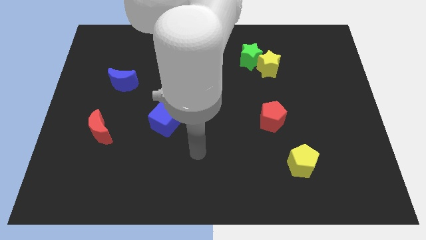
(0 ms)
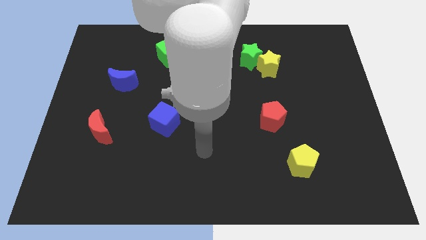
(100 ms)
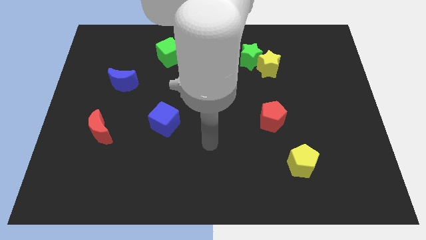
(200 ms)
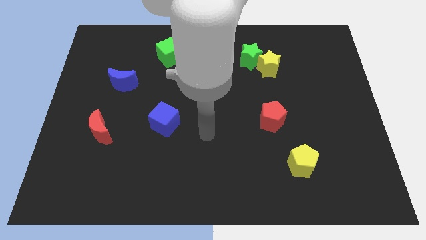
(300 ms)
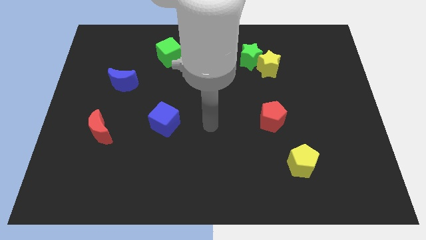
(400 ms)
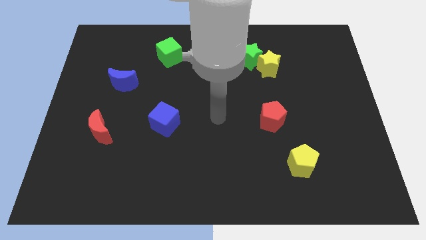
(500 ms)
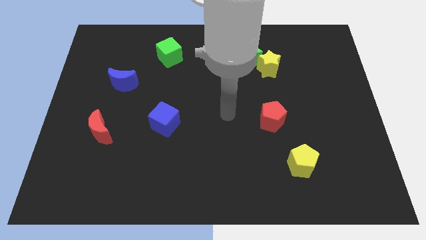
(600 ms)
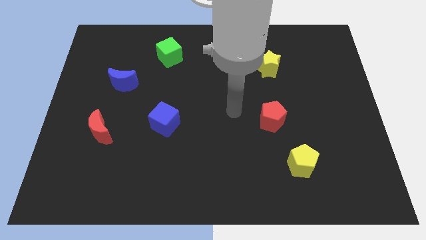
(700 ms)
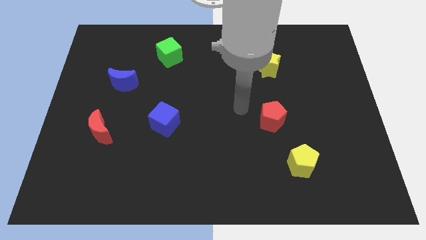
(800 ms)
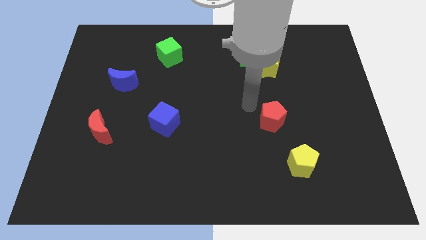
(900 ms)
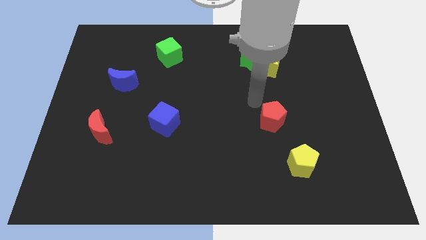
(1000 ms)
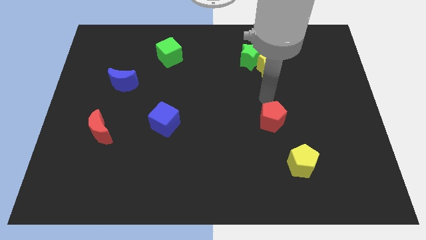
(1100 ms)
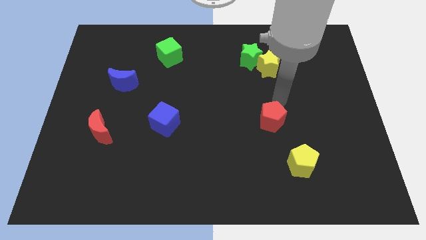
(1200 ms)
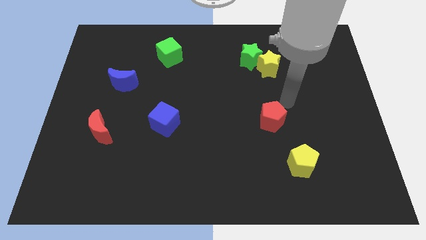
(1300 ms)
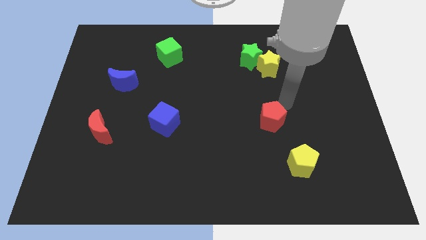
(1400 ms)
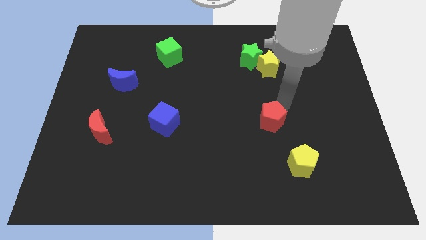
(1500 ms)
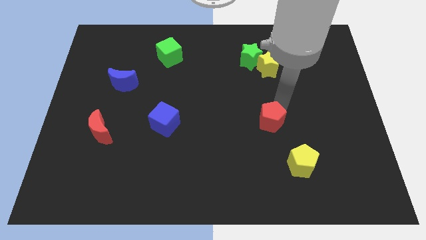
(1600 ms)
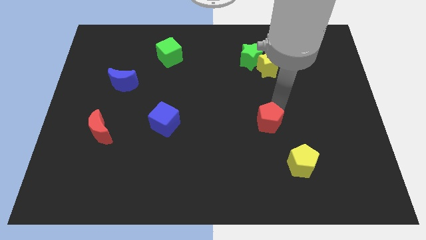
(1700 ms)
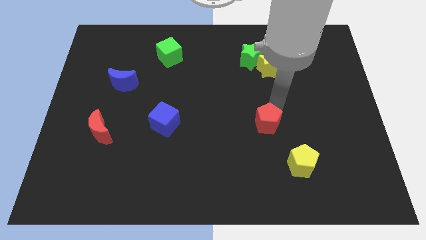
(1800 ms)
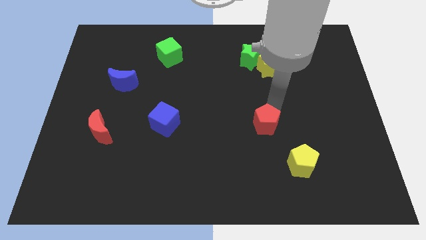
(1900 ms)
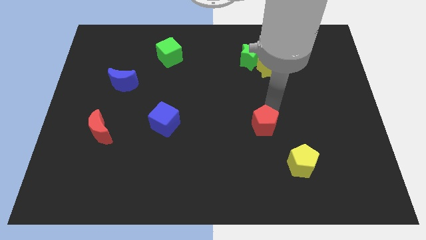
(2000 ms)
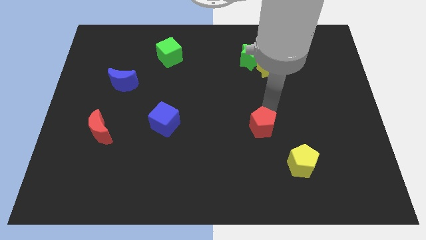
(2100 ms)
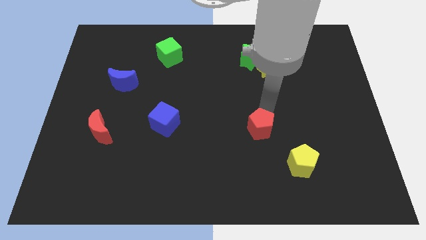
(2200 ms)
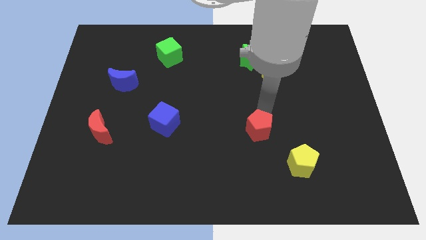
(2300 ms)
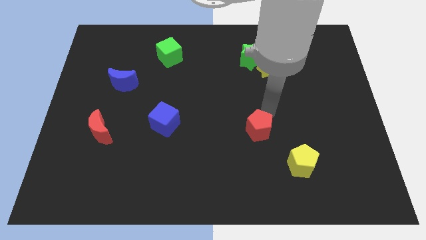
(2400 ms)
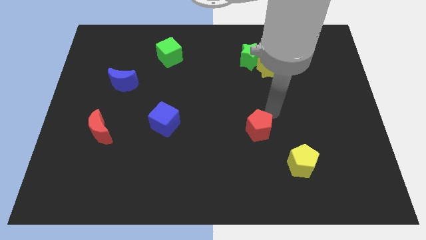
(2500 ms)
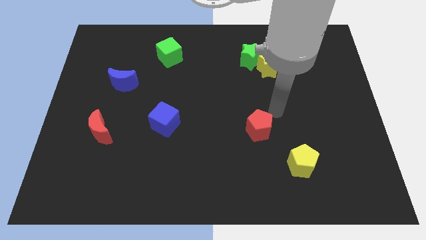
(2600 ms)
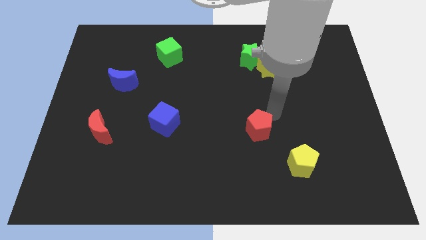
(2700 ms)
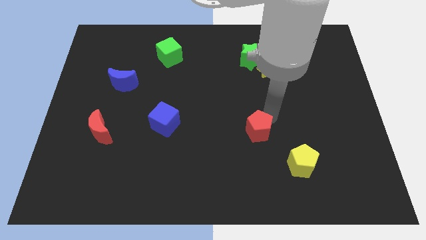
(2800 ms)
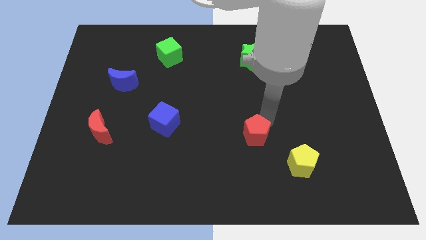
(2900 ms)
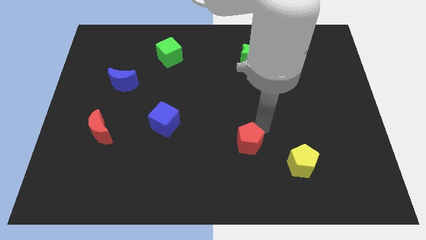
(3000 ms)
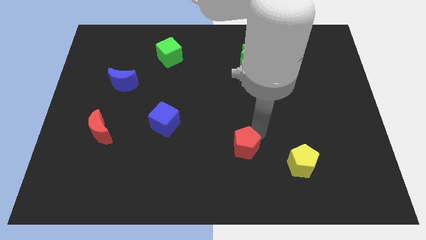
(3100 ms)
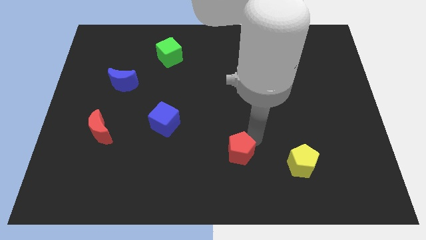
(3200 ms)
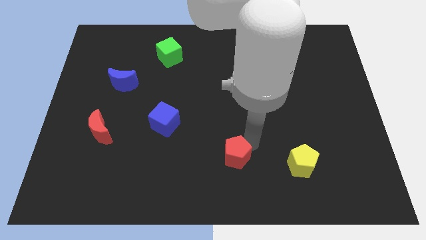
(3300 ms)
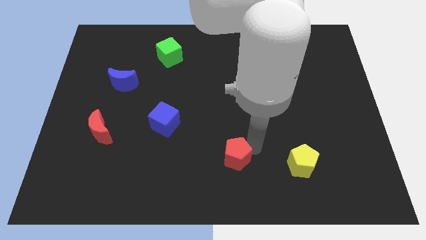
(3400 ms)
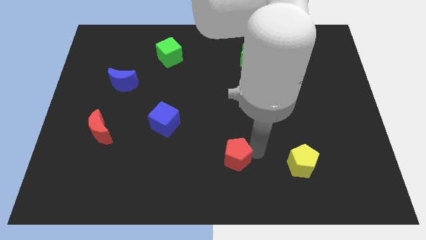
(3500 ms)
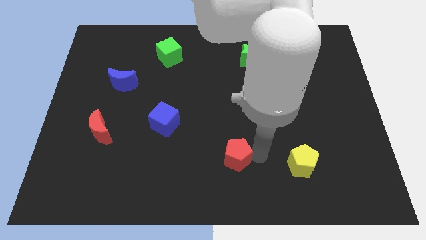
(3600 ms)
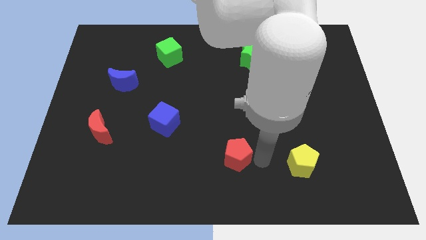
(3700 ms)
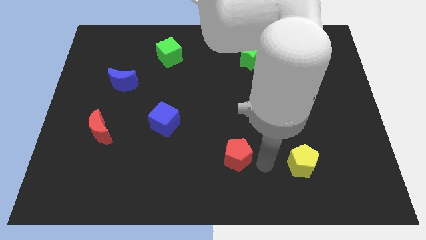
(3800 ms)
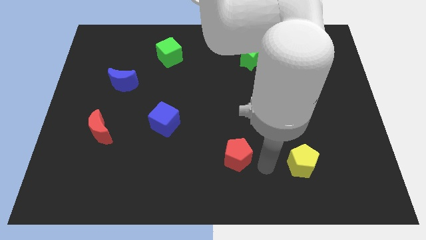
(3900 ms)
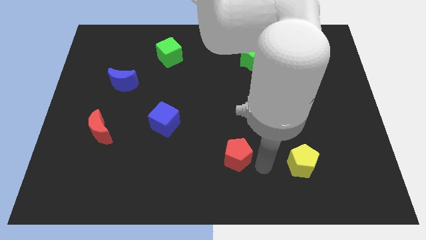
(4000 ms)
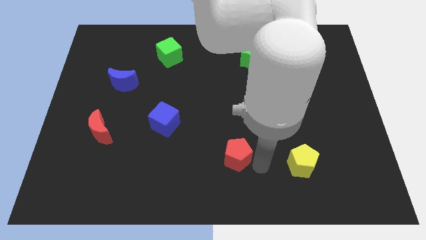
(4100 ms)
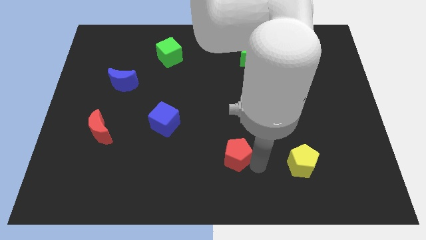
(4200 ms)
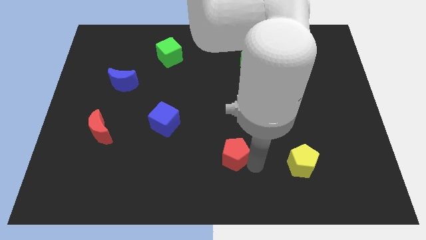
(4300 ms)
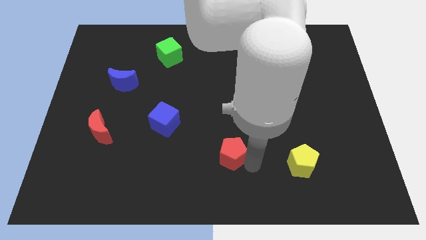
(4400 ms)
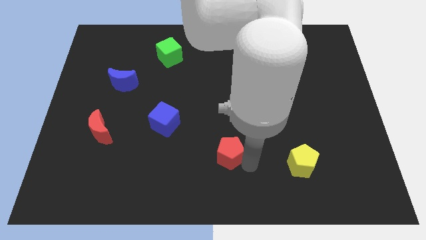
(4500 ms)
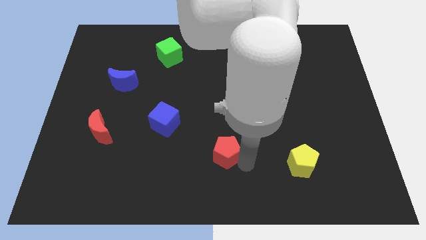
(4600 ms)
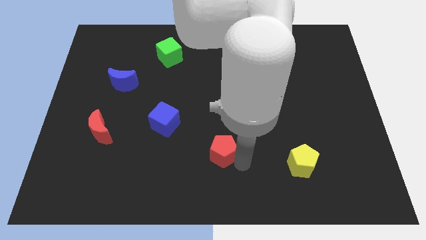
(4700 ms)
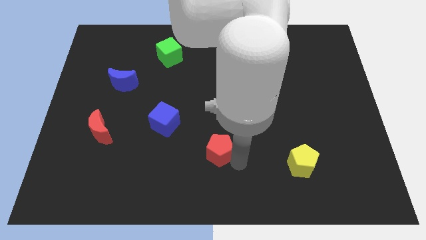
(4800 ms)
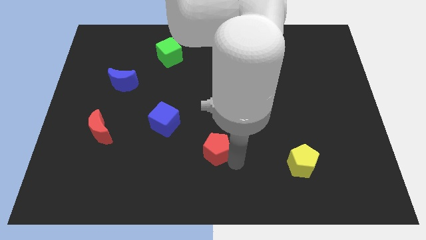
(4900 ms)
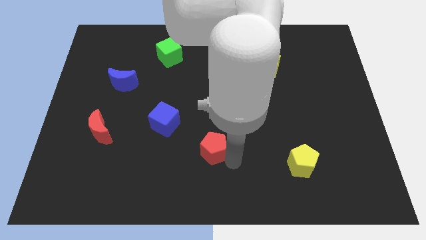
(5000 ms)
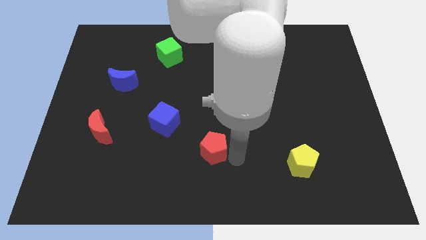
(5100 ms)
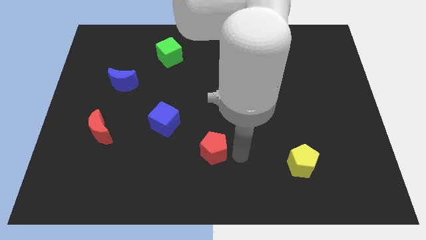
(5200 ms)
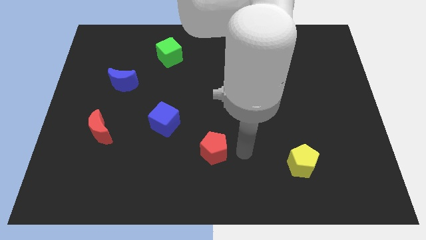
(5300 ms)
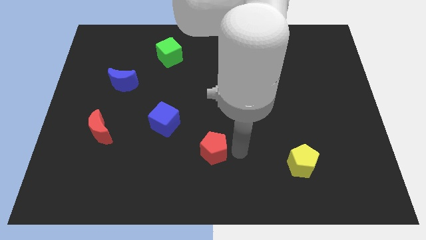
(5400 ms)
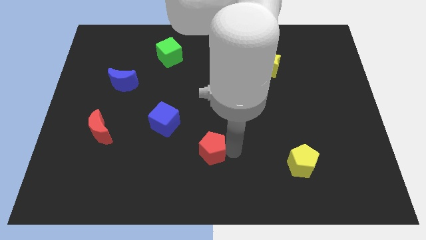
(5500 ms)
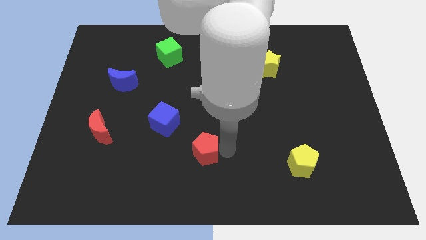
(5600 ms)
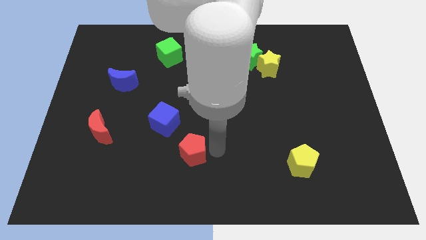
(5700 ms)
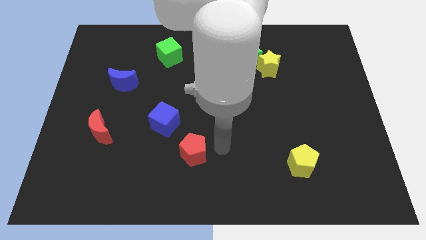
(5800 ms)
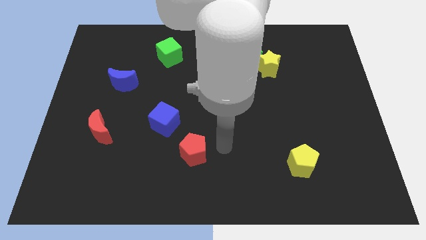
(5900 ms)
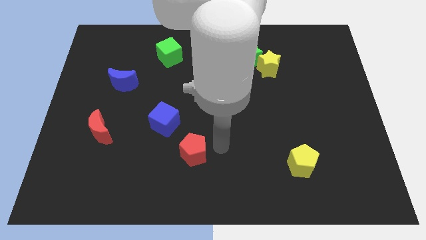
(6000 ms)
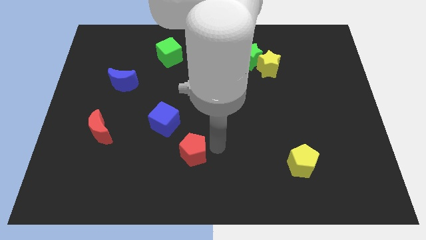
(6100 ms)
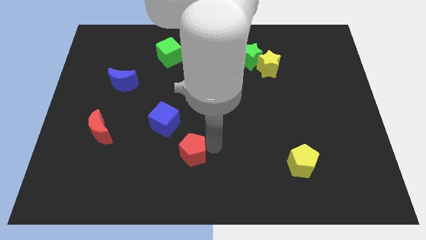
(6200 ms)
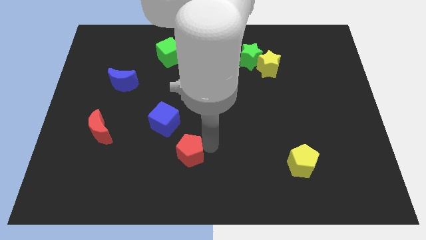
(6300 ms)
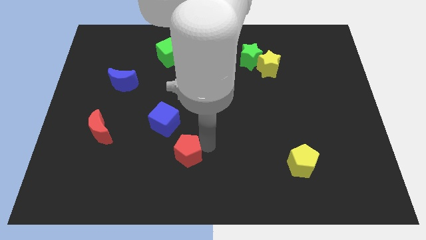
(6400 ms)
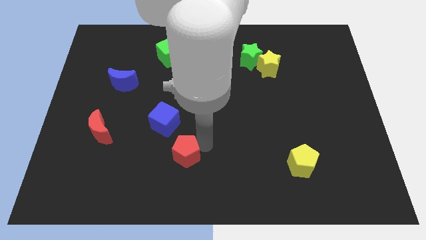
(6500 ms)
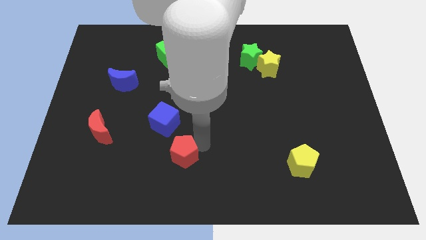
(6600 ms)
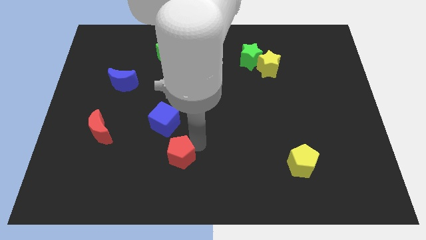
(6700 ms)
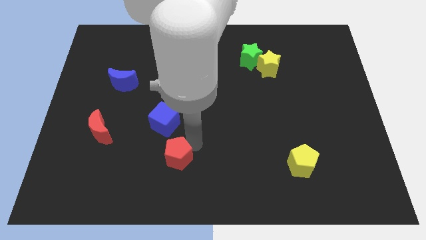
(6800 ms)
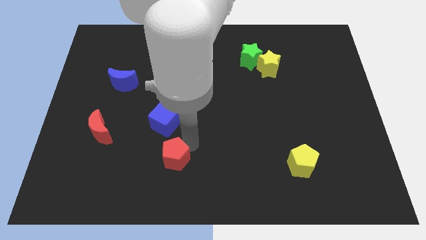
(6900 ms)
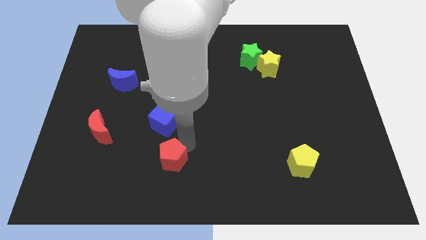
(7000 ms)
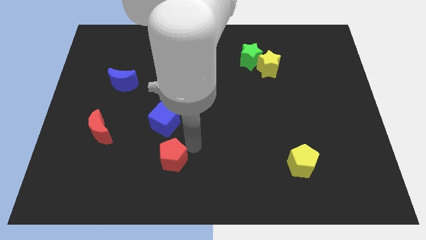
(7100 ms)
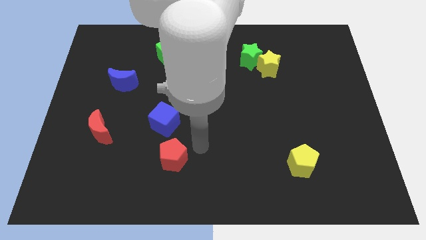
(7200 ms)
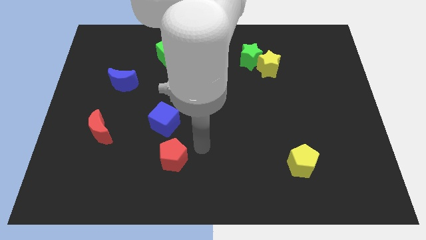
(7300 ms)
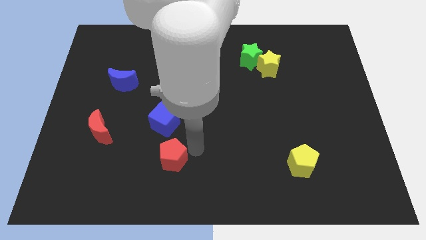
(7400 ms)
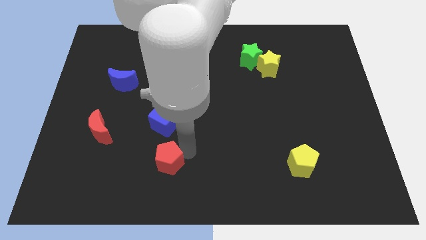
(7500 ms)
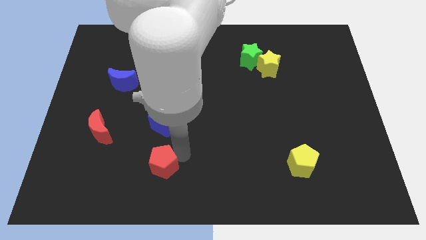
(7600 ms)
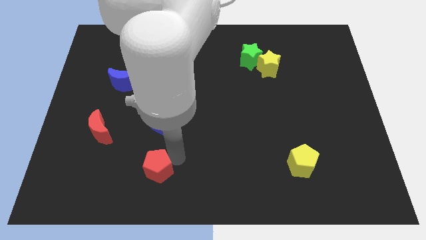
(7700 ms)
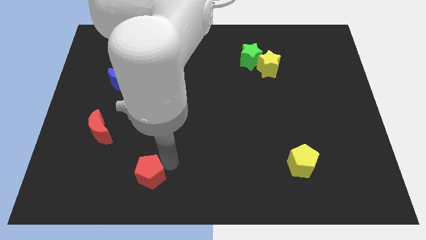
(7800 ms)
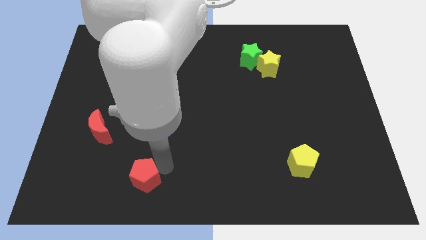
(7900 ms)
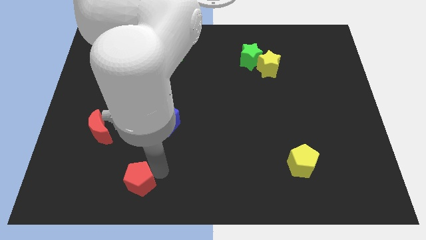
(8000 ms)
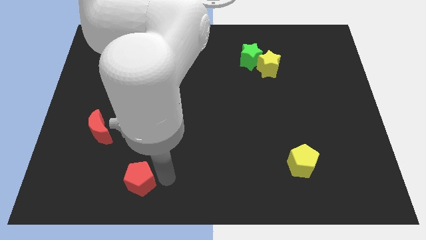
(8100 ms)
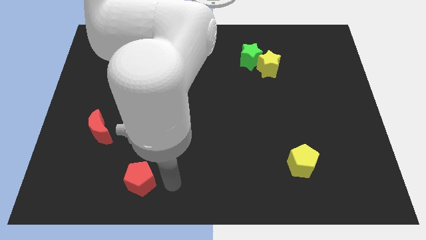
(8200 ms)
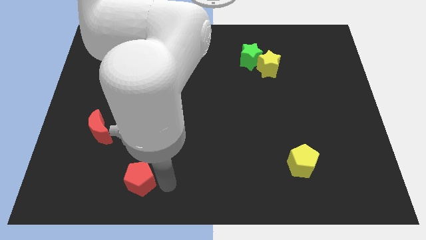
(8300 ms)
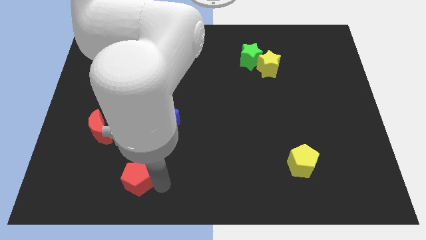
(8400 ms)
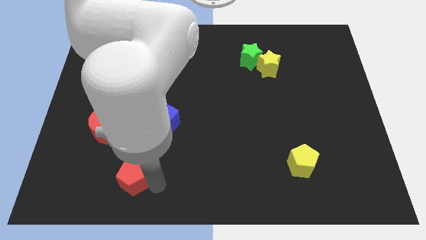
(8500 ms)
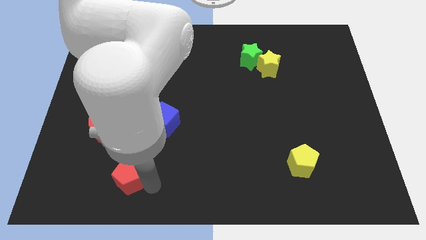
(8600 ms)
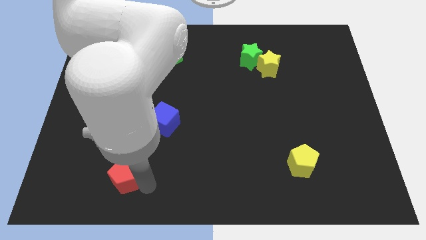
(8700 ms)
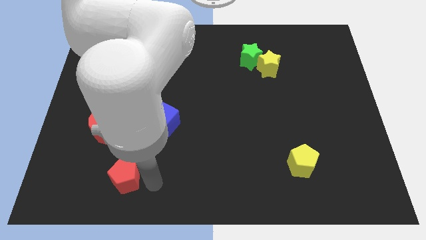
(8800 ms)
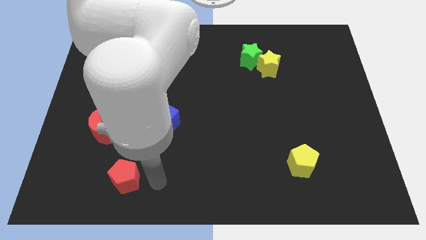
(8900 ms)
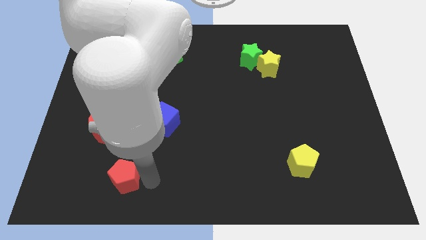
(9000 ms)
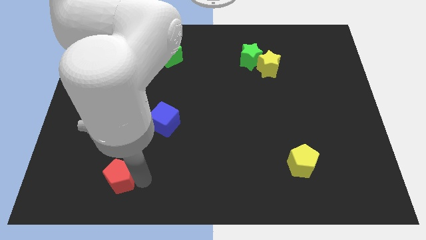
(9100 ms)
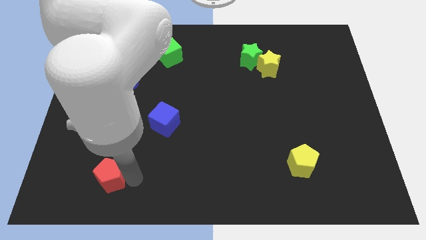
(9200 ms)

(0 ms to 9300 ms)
move the red pentagon below the red moon
